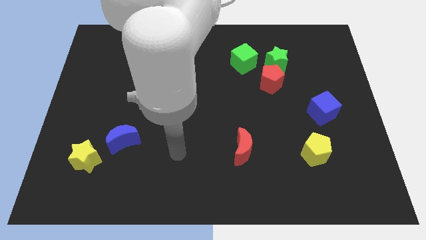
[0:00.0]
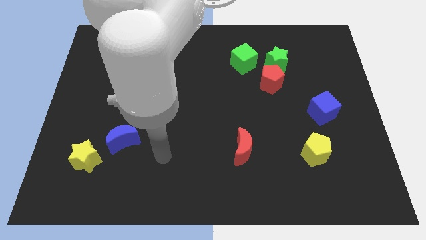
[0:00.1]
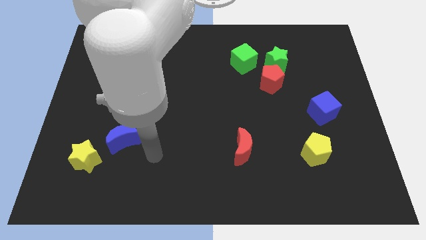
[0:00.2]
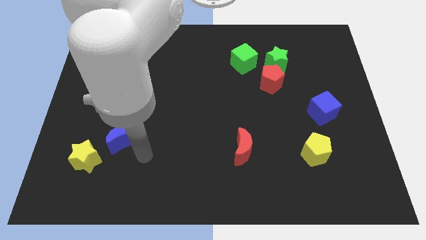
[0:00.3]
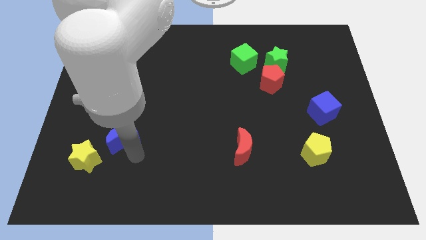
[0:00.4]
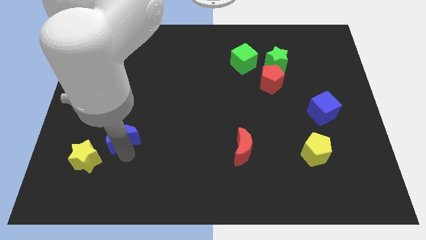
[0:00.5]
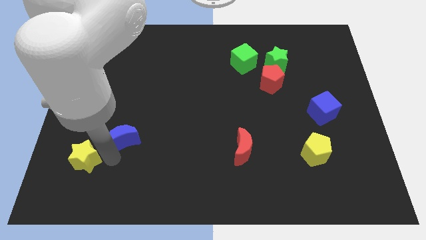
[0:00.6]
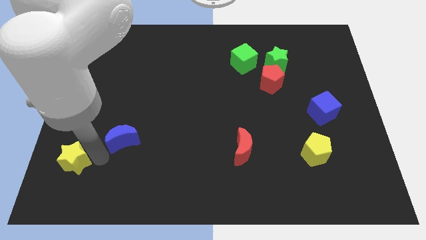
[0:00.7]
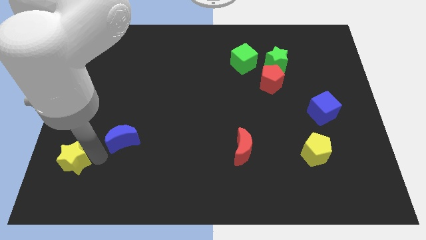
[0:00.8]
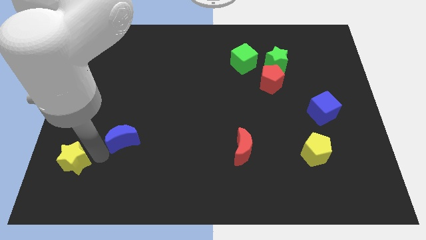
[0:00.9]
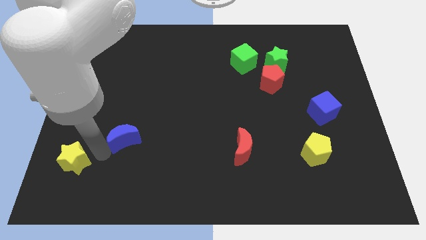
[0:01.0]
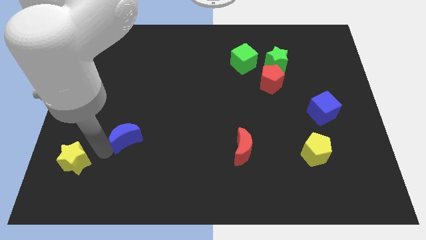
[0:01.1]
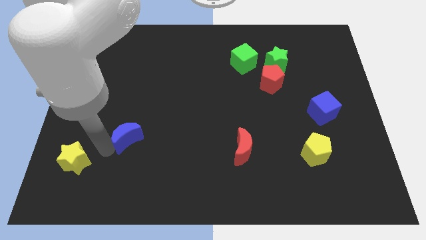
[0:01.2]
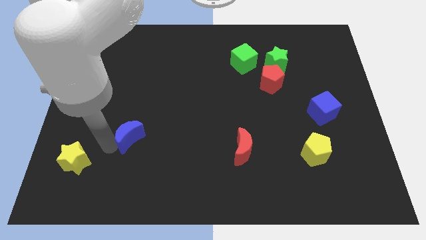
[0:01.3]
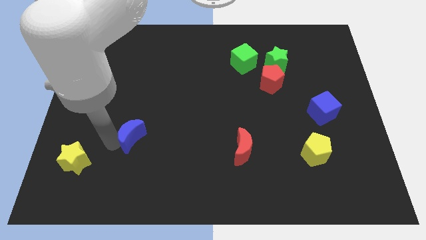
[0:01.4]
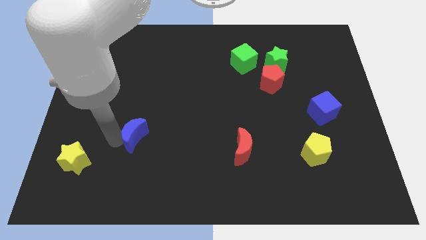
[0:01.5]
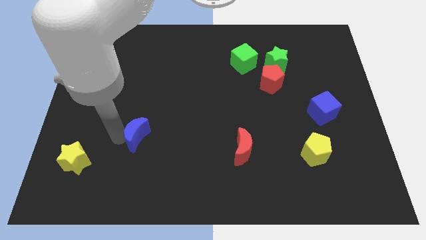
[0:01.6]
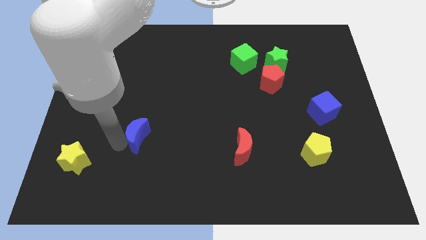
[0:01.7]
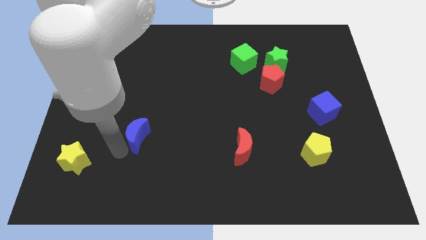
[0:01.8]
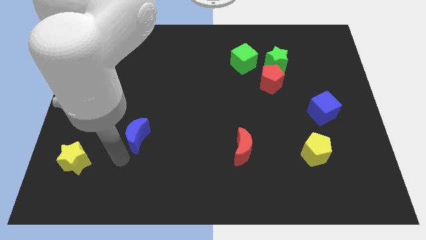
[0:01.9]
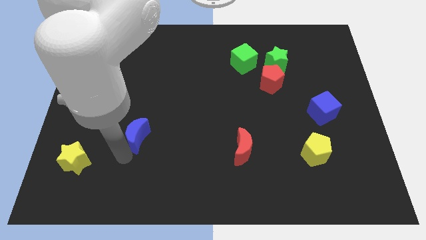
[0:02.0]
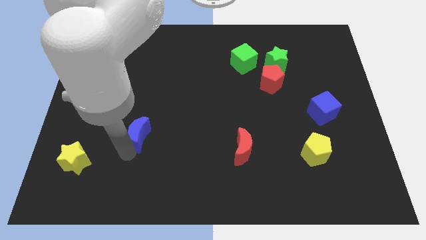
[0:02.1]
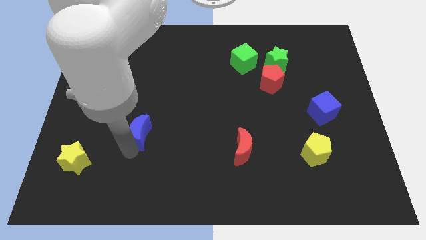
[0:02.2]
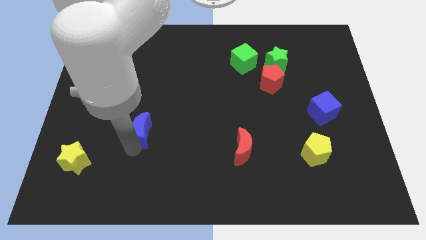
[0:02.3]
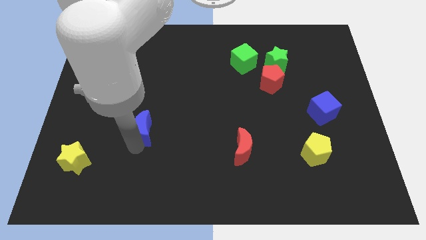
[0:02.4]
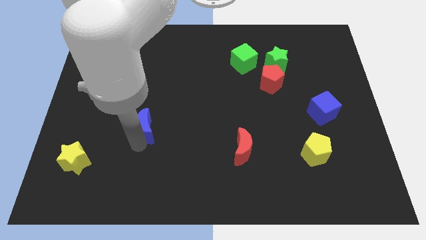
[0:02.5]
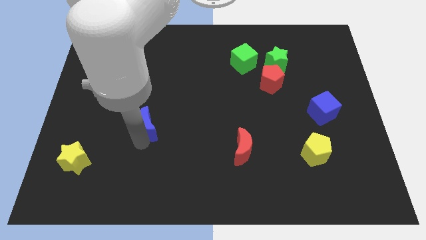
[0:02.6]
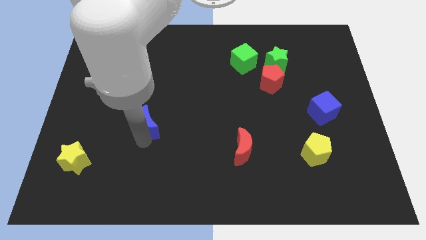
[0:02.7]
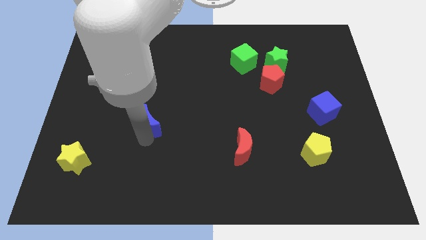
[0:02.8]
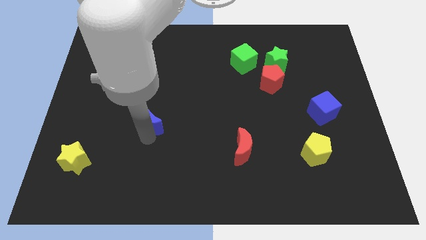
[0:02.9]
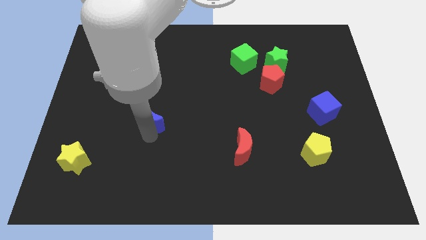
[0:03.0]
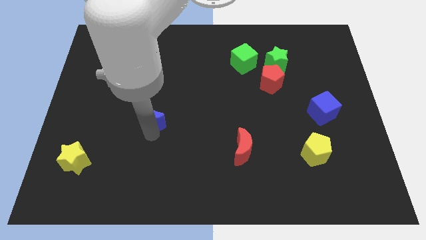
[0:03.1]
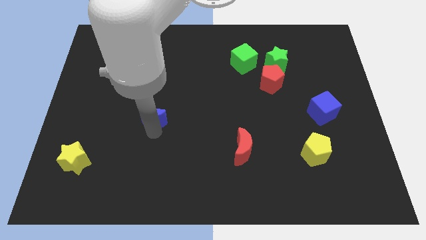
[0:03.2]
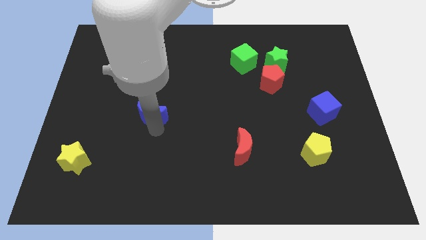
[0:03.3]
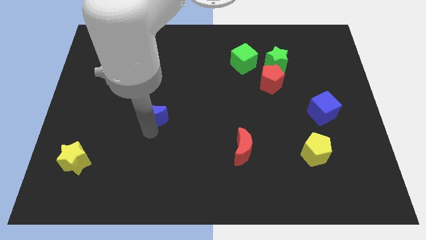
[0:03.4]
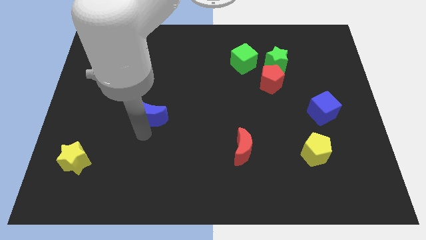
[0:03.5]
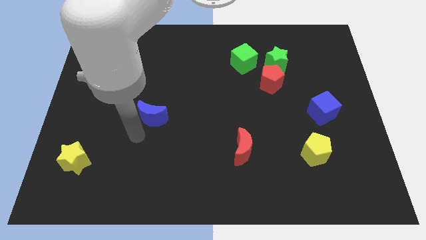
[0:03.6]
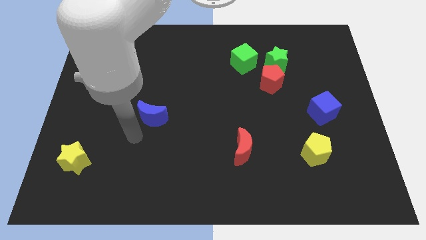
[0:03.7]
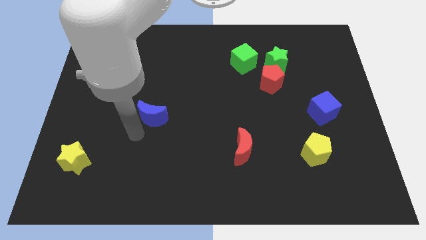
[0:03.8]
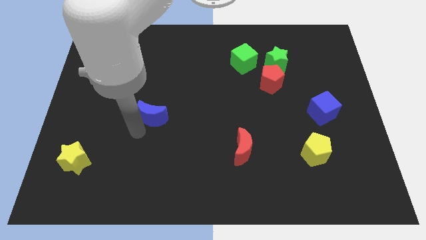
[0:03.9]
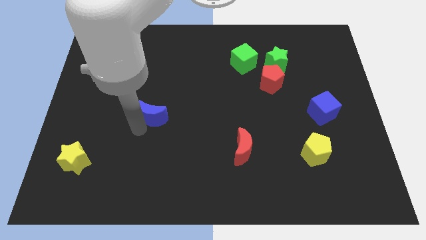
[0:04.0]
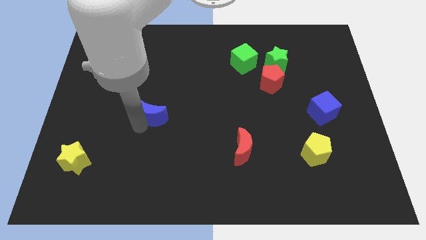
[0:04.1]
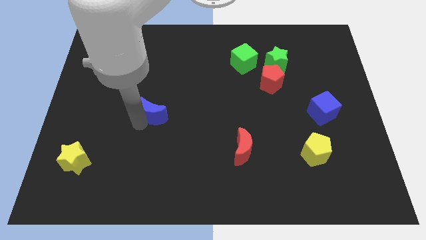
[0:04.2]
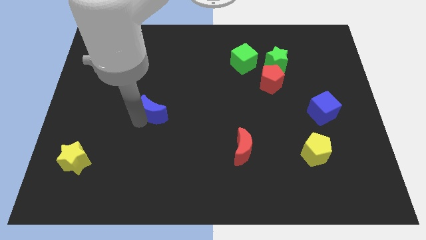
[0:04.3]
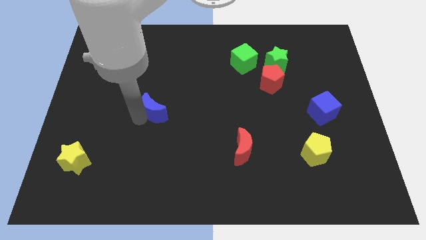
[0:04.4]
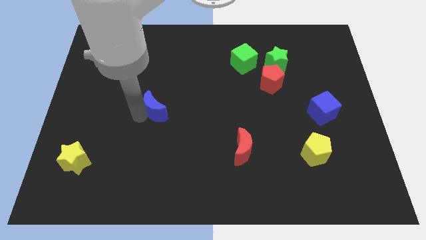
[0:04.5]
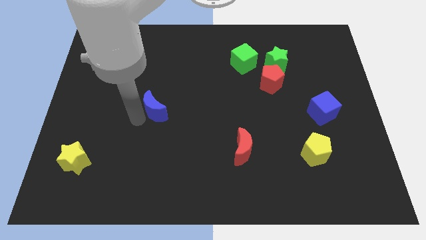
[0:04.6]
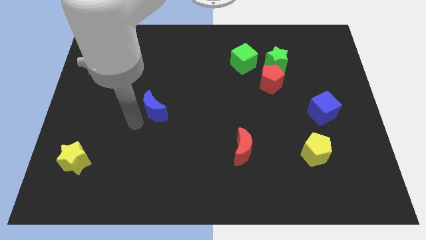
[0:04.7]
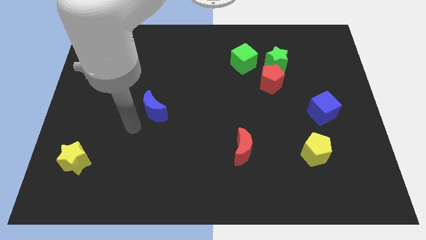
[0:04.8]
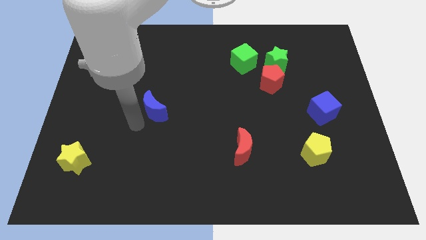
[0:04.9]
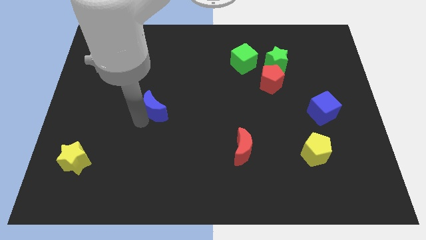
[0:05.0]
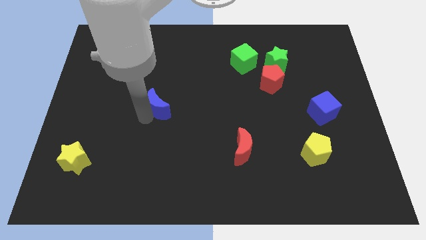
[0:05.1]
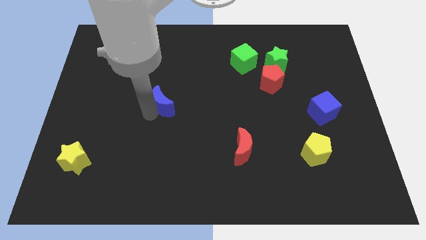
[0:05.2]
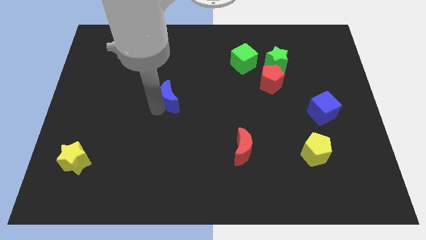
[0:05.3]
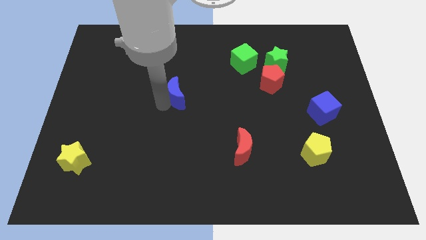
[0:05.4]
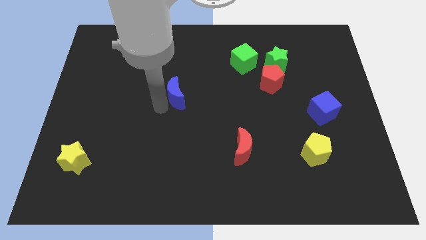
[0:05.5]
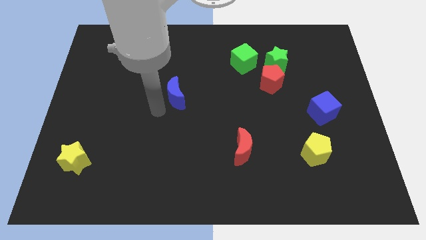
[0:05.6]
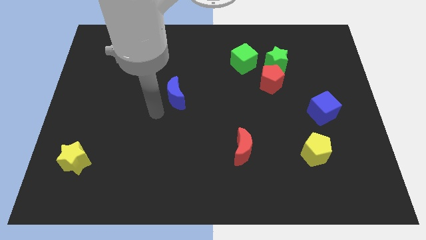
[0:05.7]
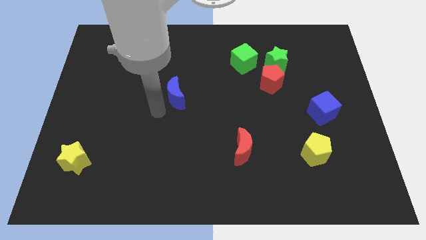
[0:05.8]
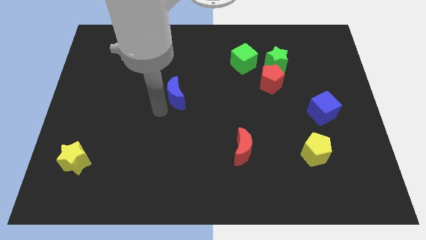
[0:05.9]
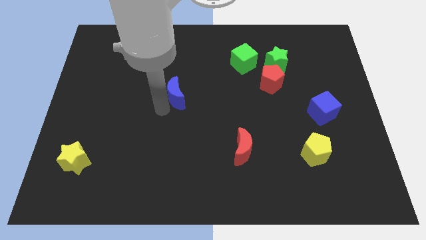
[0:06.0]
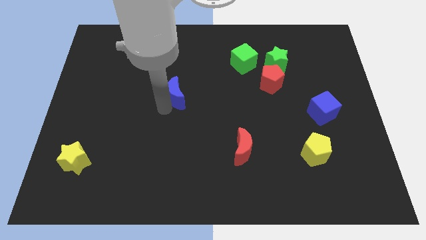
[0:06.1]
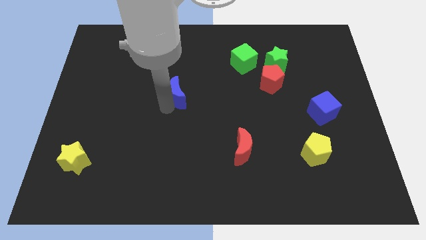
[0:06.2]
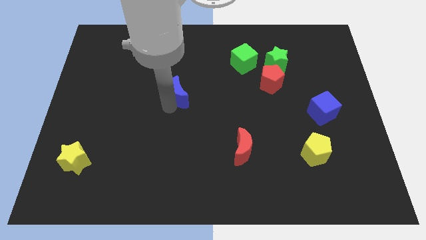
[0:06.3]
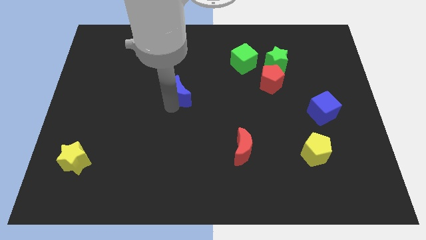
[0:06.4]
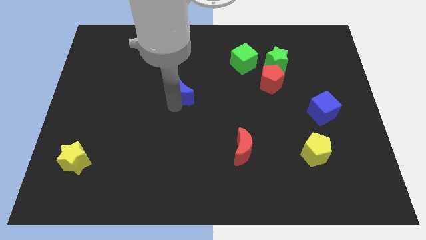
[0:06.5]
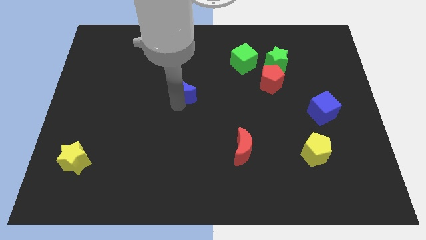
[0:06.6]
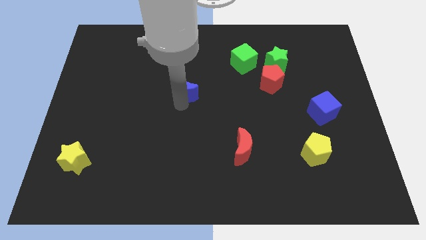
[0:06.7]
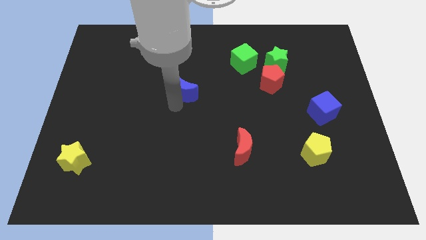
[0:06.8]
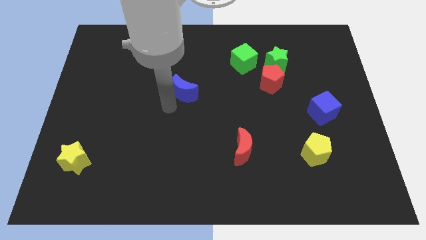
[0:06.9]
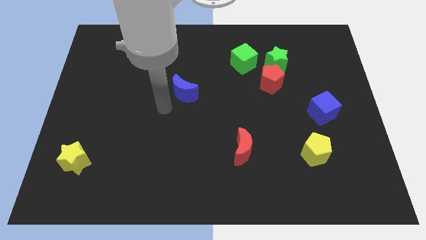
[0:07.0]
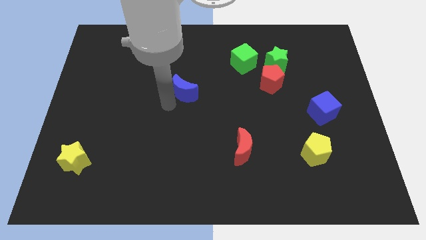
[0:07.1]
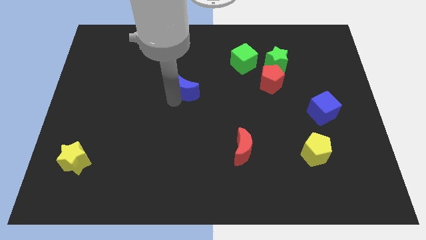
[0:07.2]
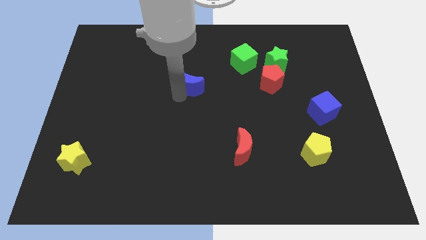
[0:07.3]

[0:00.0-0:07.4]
slide the blue moon up and to the right diagonally

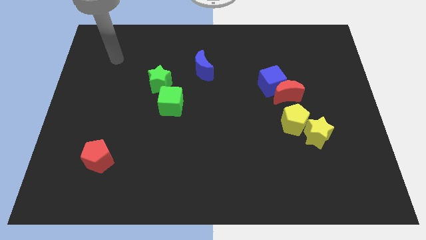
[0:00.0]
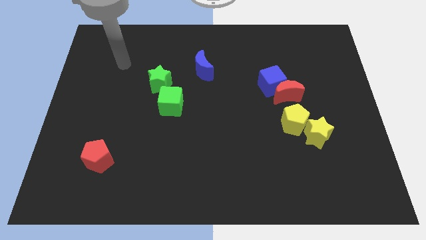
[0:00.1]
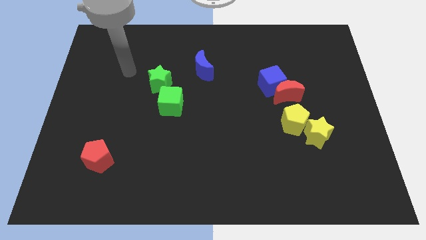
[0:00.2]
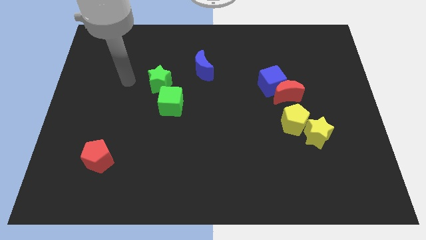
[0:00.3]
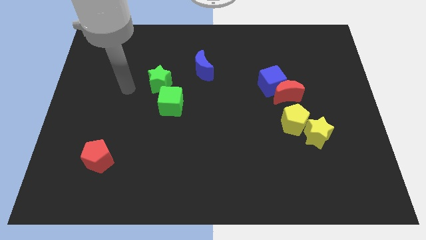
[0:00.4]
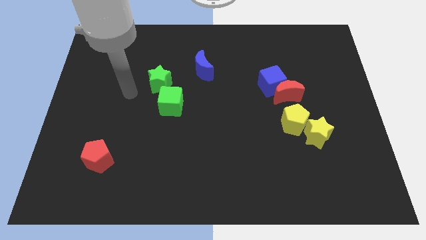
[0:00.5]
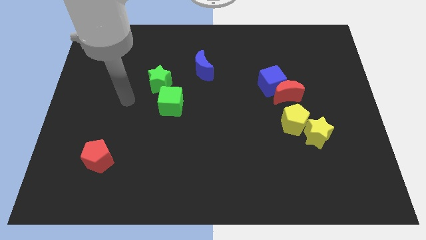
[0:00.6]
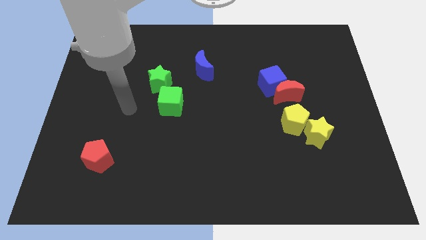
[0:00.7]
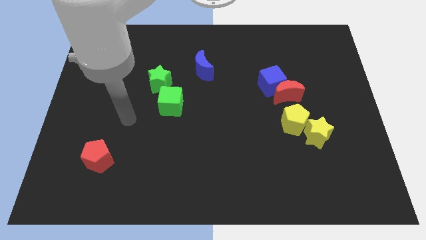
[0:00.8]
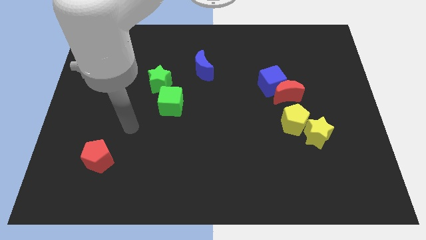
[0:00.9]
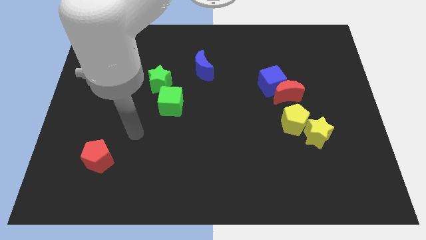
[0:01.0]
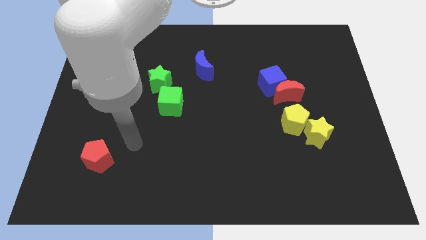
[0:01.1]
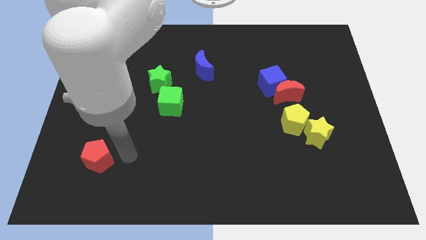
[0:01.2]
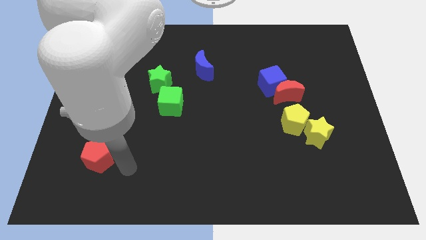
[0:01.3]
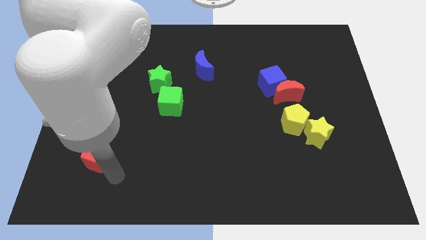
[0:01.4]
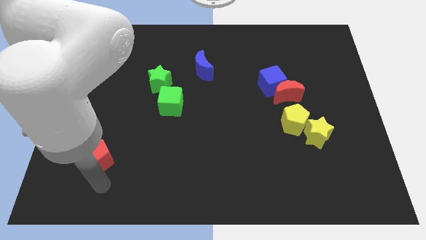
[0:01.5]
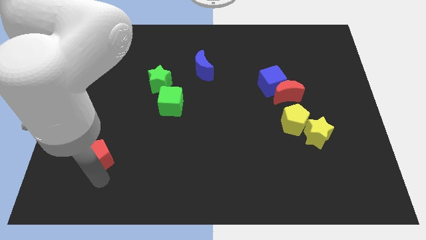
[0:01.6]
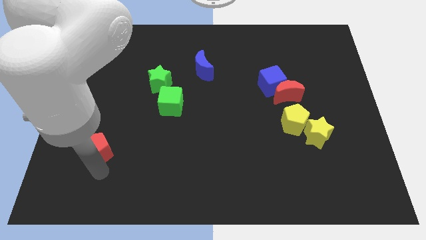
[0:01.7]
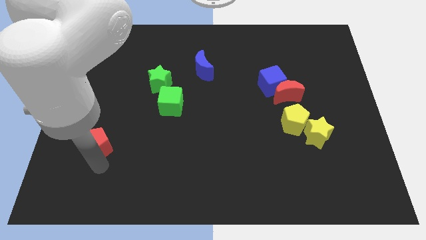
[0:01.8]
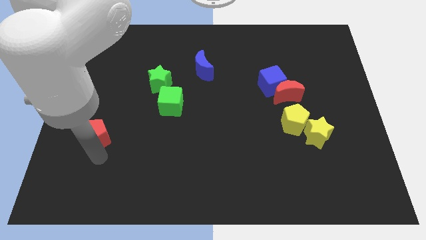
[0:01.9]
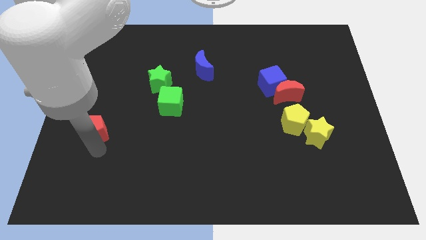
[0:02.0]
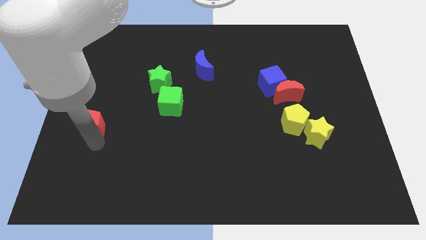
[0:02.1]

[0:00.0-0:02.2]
push the red pentagon slightly upwards
